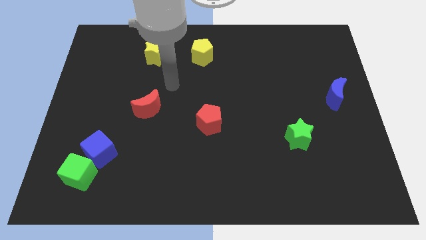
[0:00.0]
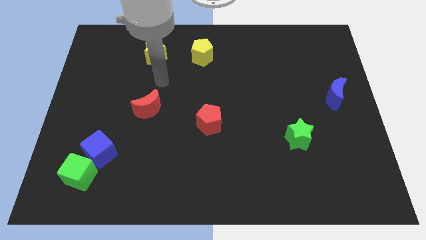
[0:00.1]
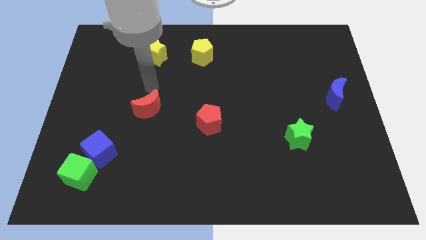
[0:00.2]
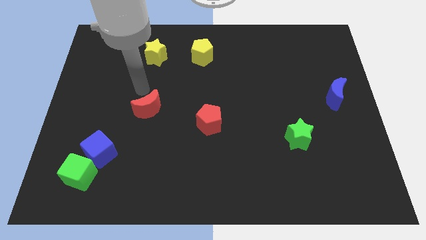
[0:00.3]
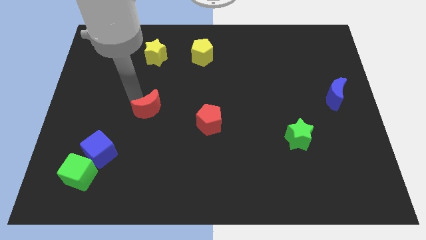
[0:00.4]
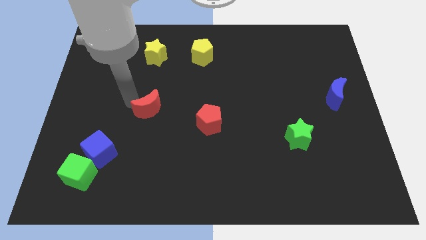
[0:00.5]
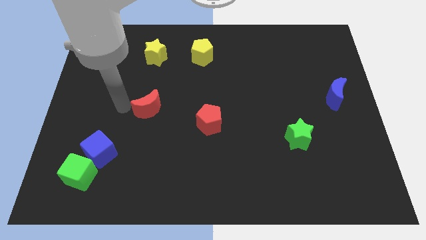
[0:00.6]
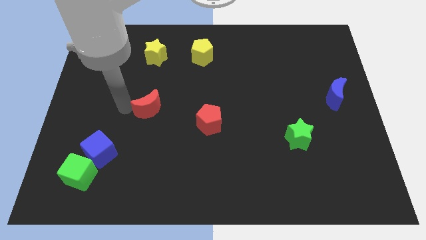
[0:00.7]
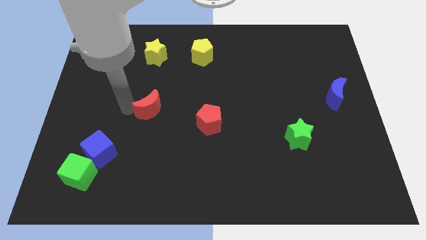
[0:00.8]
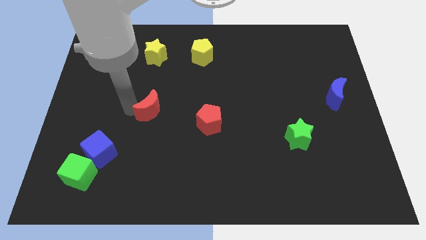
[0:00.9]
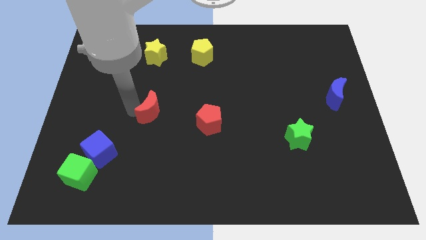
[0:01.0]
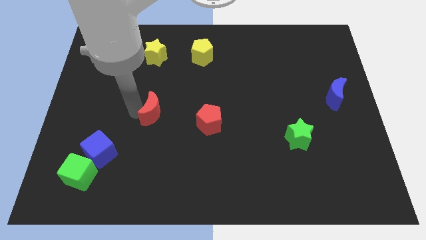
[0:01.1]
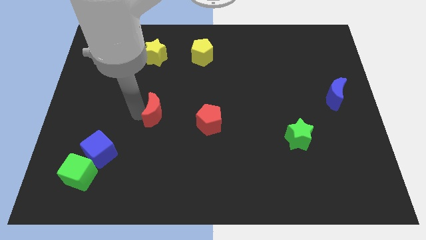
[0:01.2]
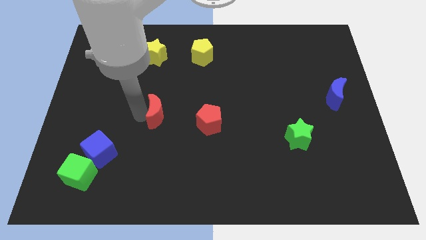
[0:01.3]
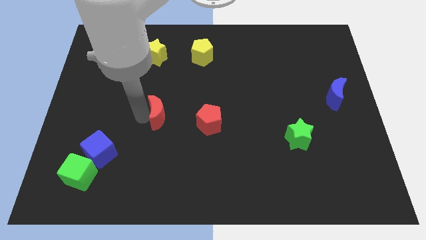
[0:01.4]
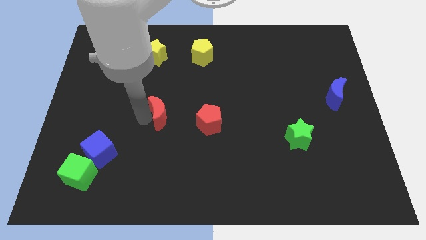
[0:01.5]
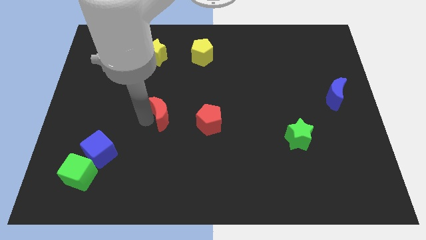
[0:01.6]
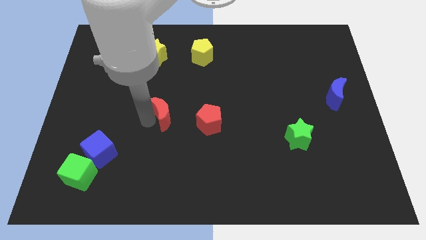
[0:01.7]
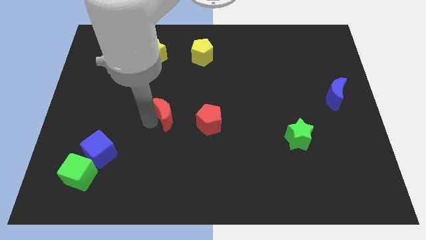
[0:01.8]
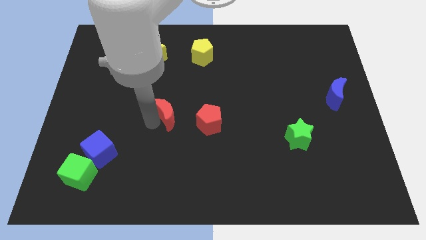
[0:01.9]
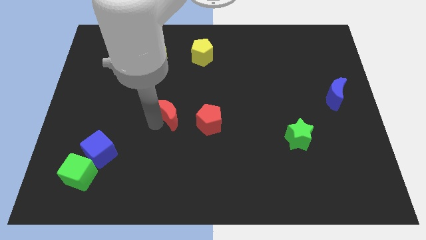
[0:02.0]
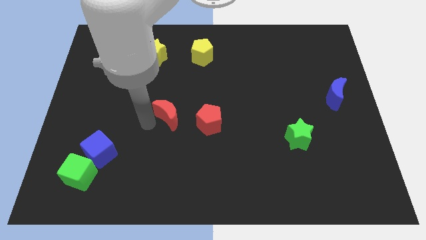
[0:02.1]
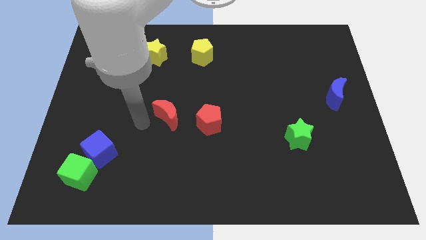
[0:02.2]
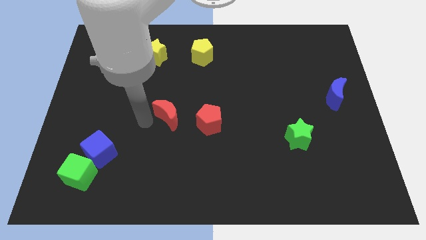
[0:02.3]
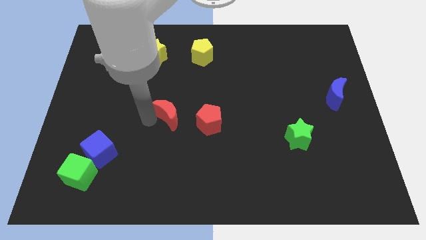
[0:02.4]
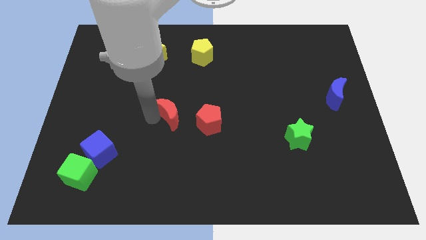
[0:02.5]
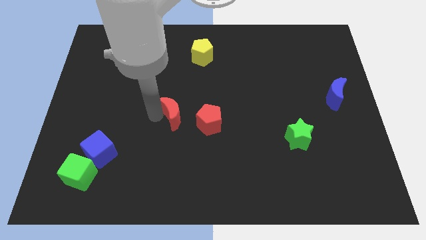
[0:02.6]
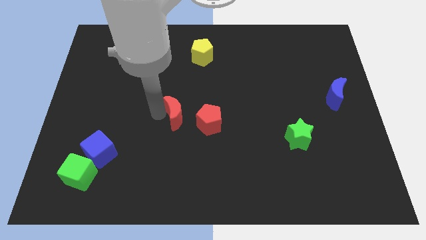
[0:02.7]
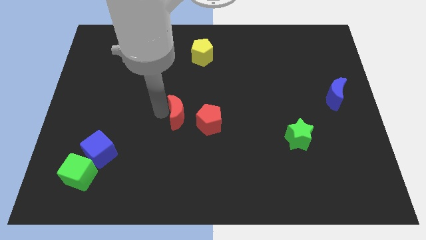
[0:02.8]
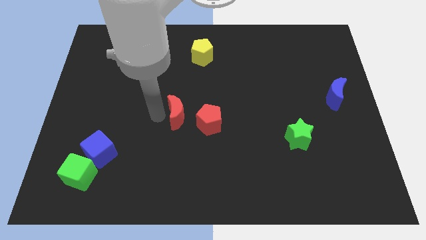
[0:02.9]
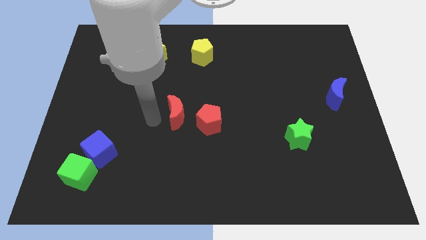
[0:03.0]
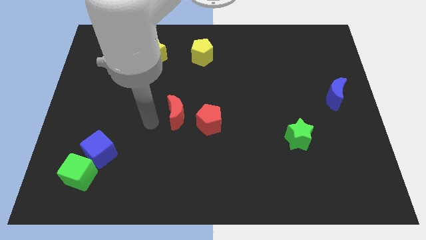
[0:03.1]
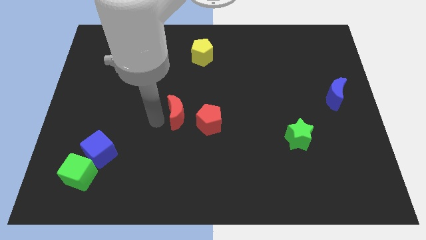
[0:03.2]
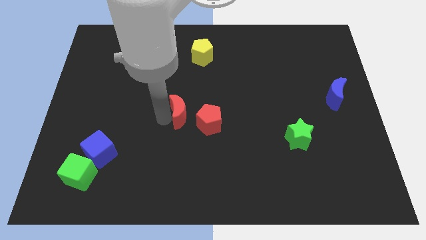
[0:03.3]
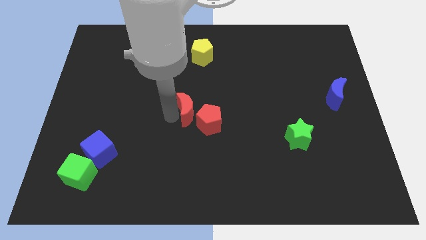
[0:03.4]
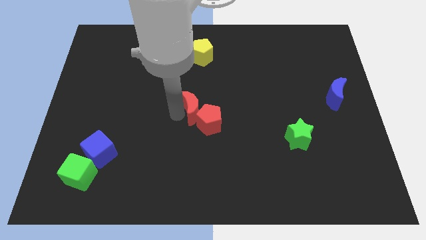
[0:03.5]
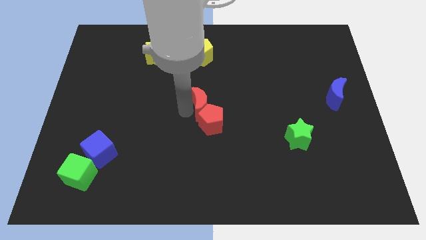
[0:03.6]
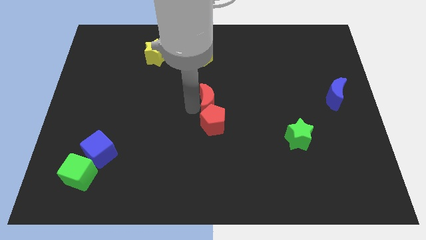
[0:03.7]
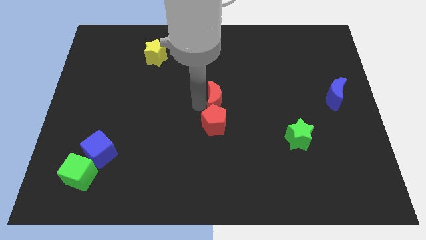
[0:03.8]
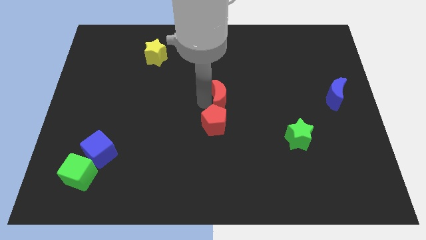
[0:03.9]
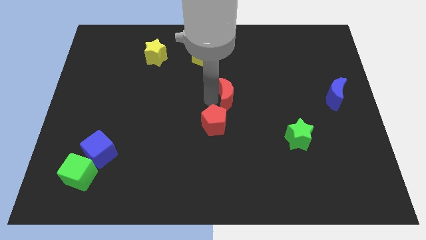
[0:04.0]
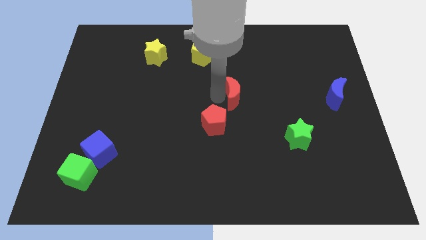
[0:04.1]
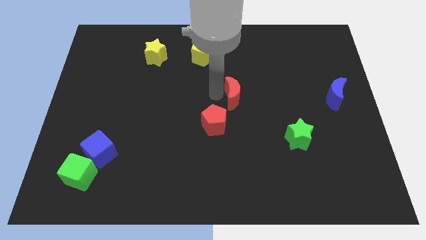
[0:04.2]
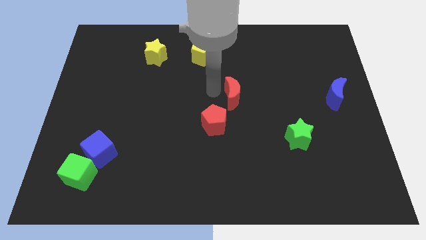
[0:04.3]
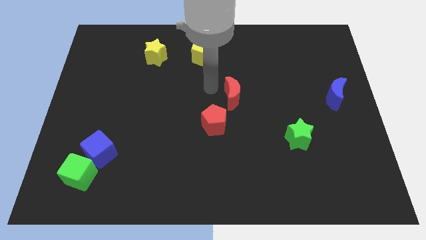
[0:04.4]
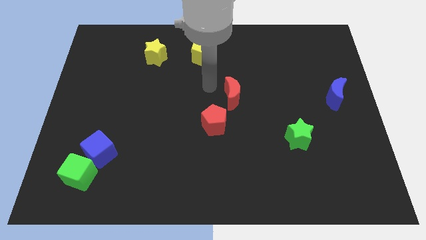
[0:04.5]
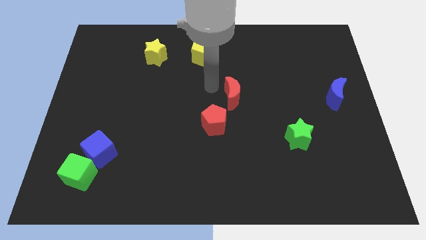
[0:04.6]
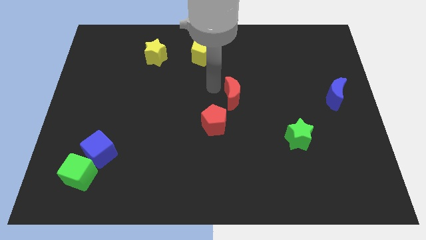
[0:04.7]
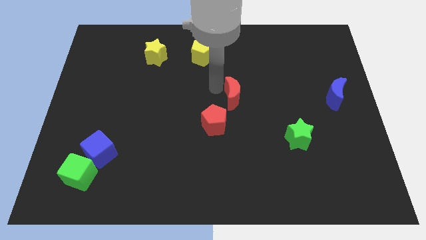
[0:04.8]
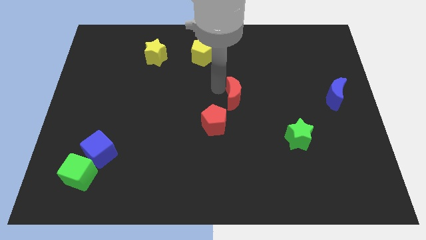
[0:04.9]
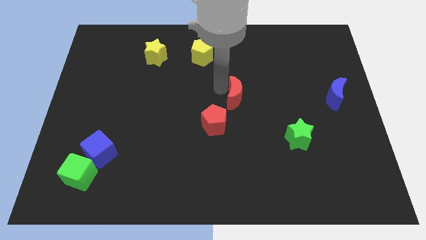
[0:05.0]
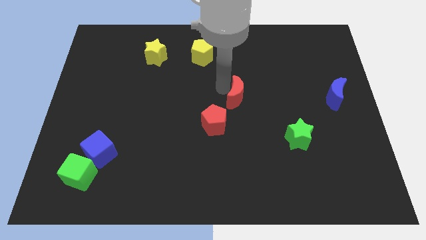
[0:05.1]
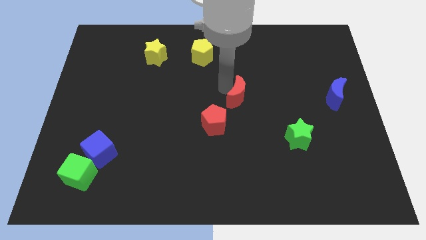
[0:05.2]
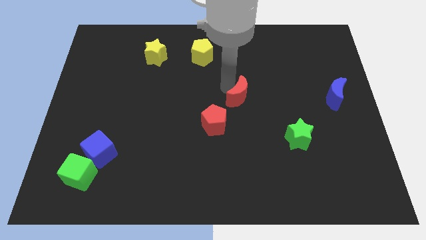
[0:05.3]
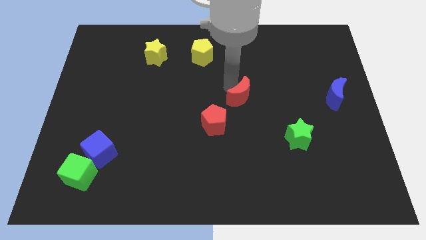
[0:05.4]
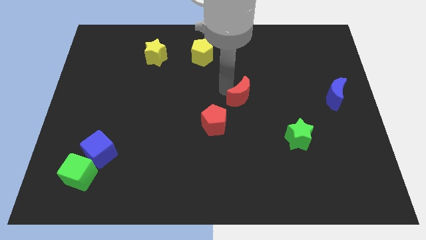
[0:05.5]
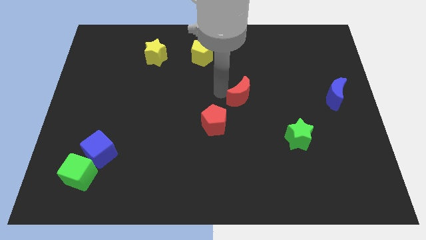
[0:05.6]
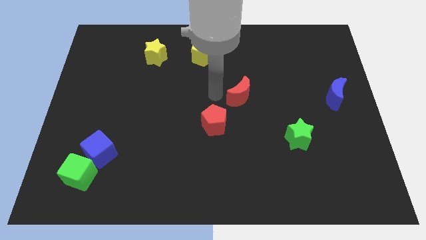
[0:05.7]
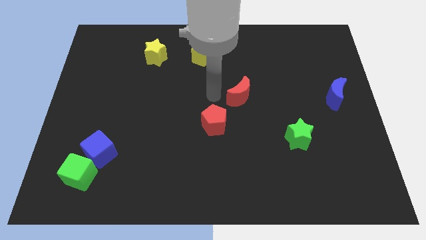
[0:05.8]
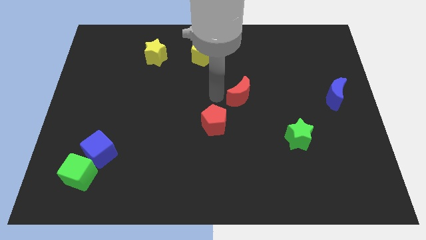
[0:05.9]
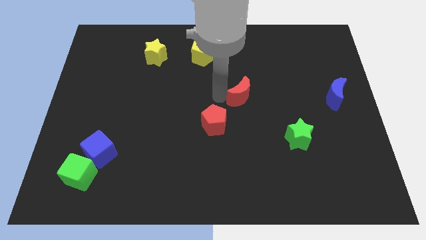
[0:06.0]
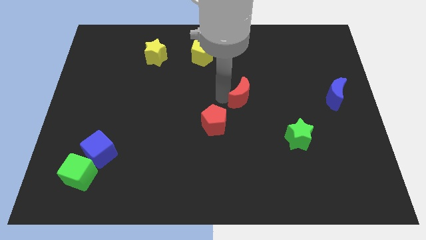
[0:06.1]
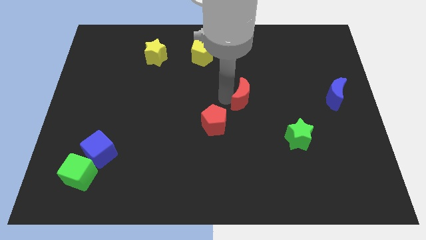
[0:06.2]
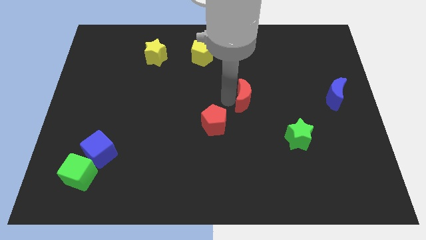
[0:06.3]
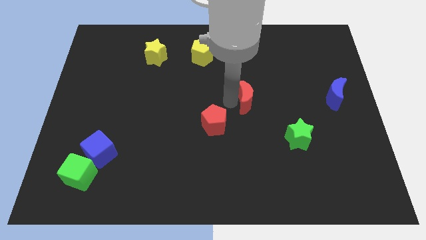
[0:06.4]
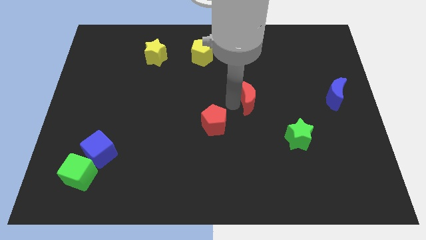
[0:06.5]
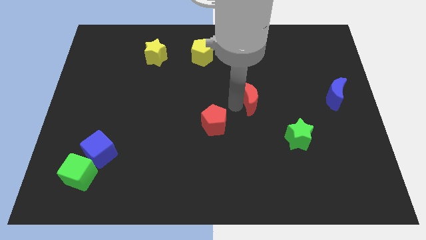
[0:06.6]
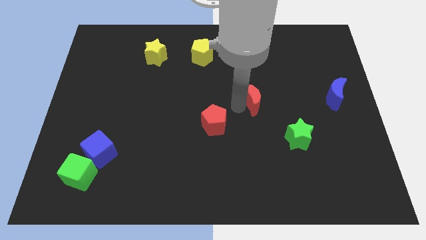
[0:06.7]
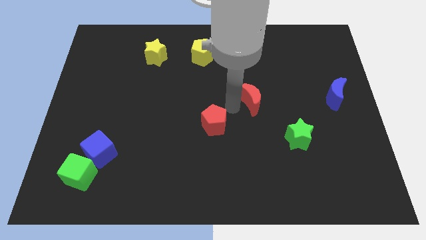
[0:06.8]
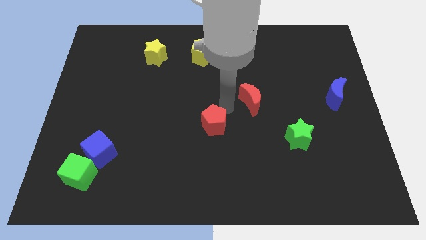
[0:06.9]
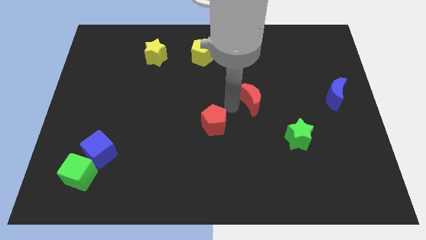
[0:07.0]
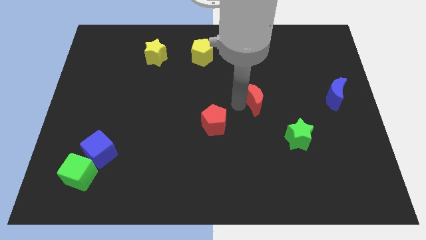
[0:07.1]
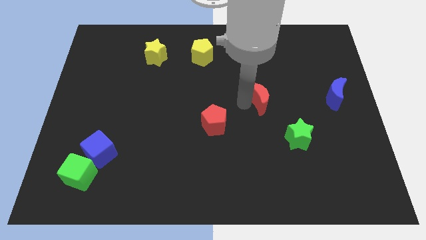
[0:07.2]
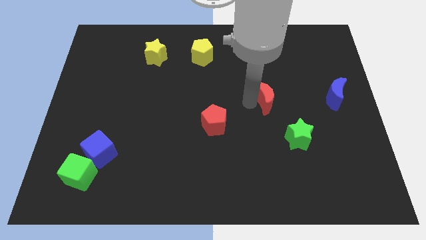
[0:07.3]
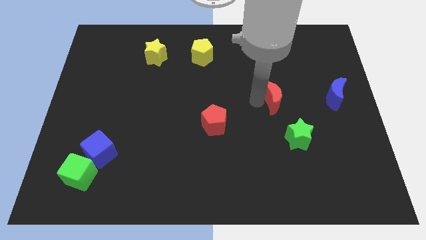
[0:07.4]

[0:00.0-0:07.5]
put the red moon left of the blue moon
